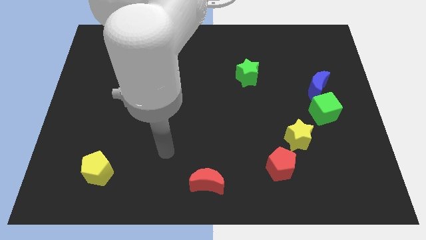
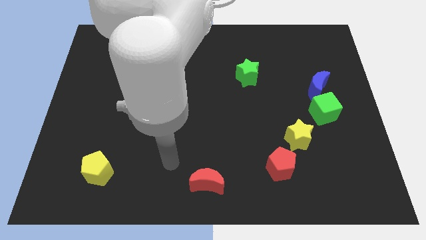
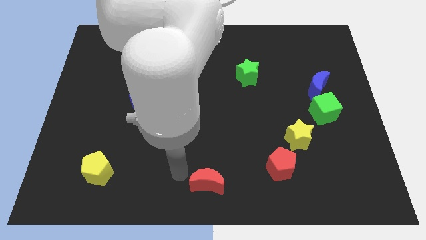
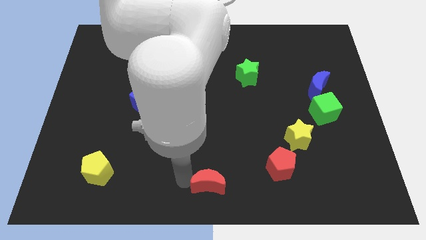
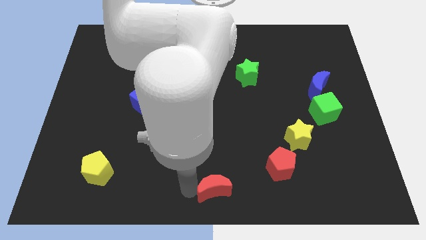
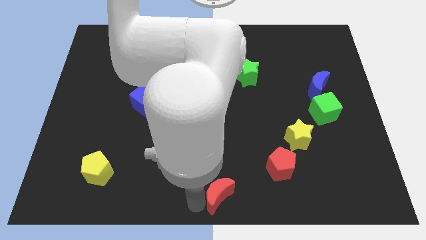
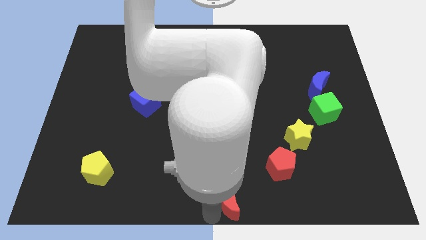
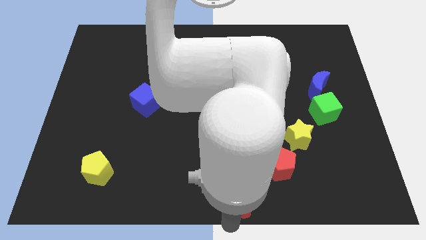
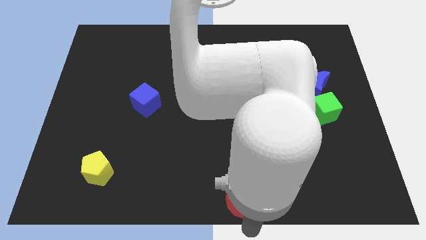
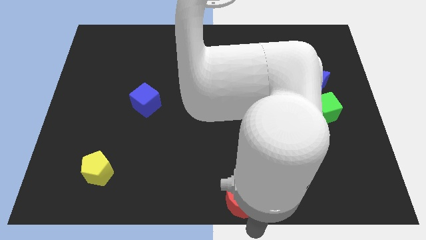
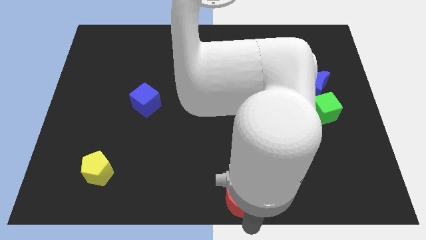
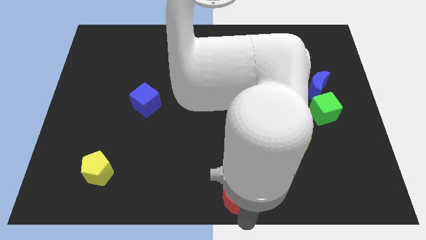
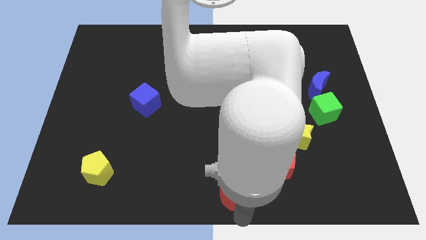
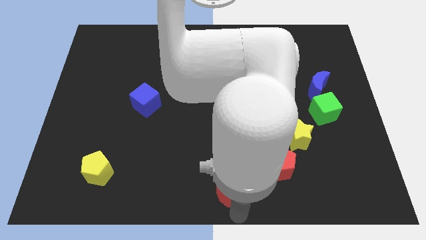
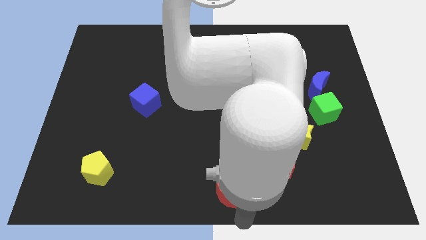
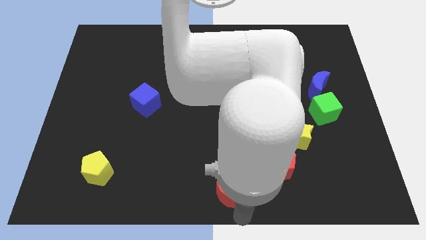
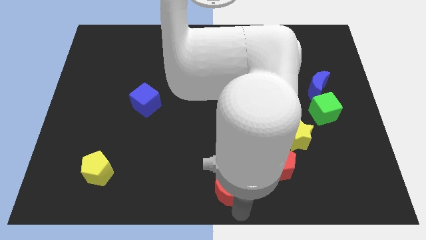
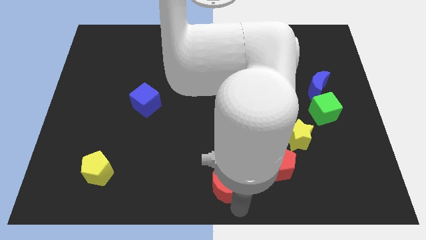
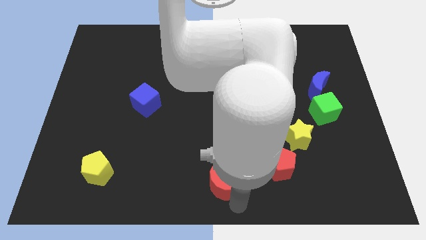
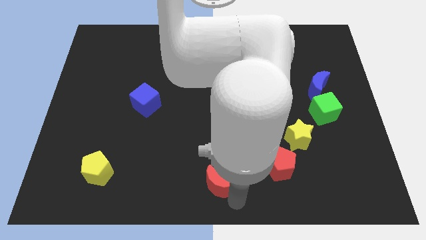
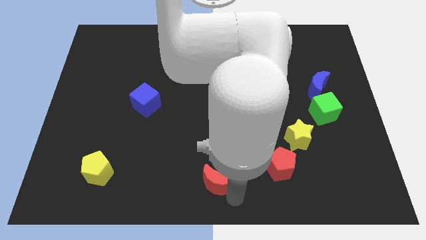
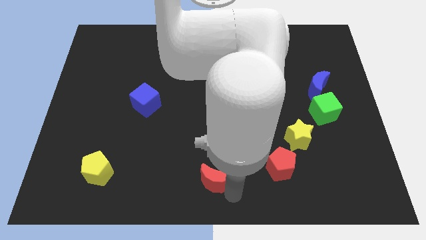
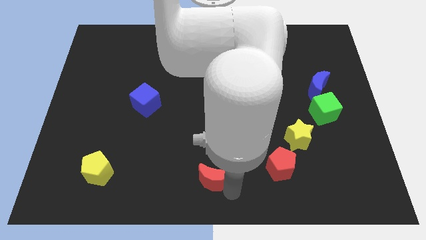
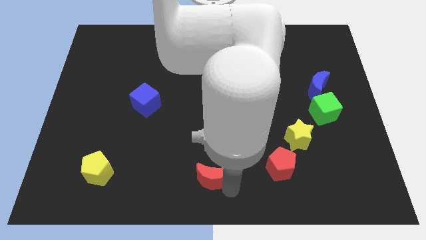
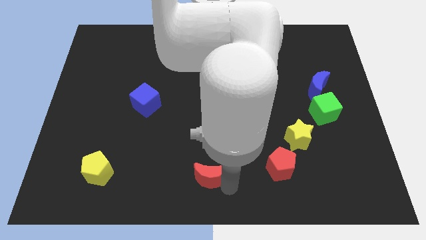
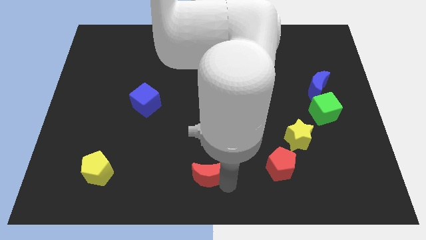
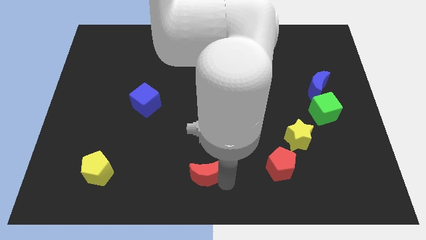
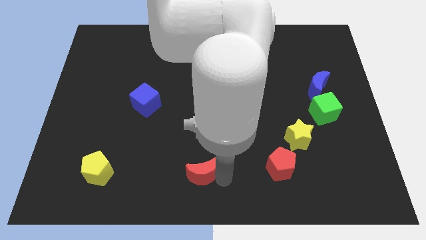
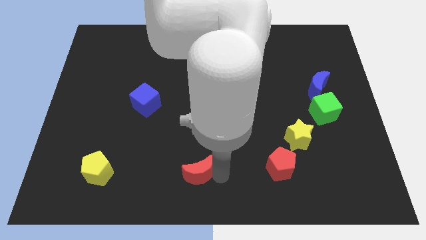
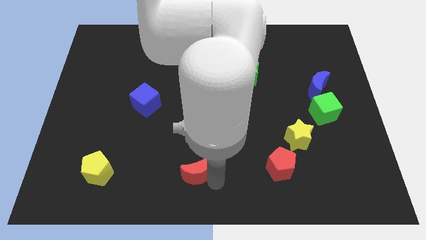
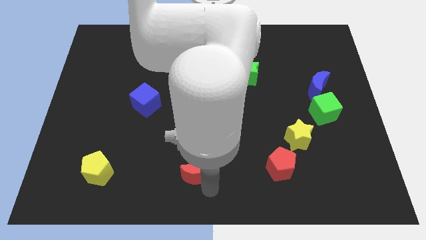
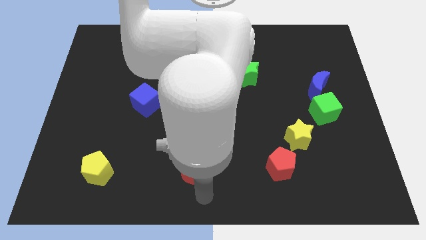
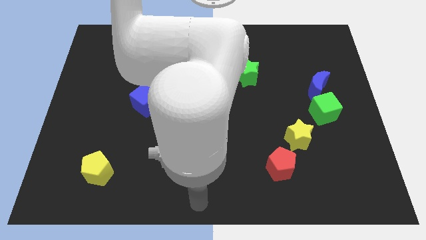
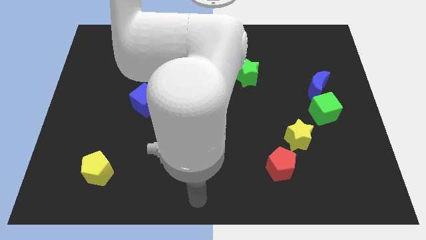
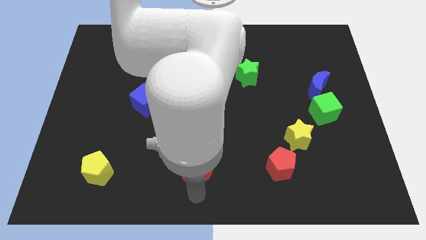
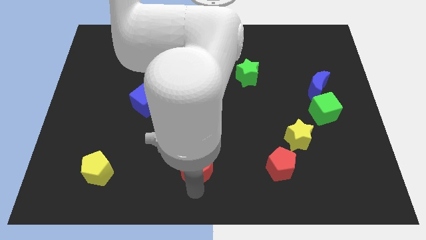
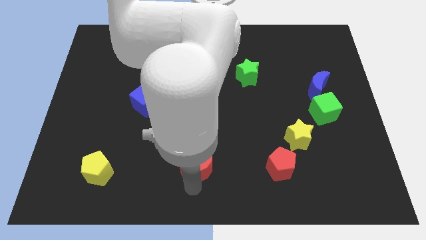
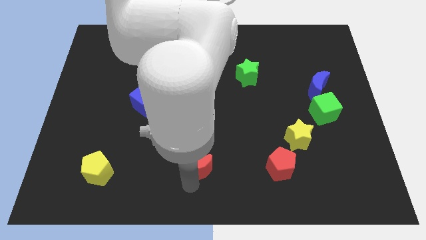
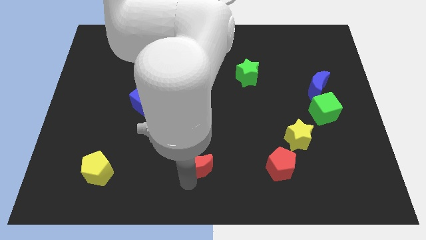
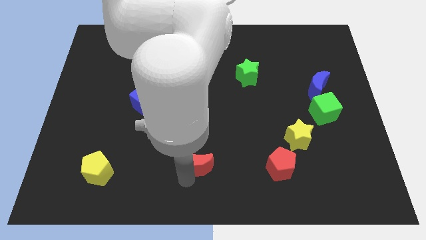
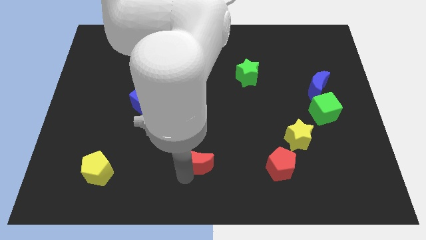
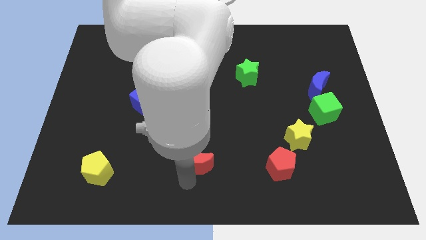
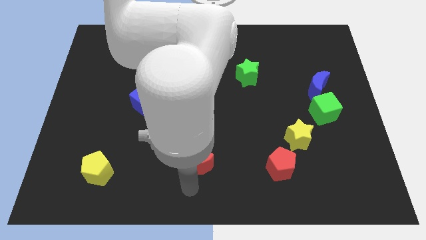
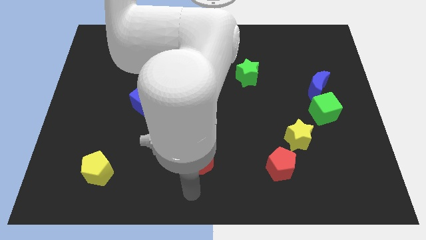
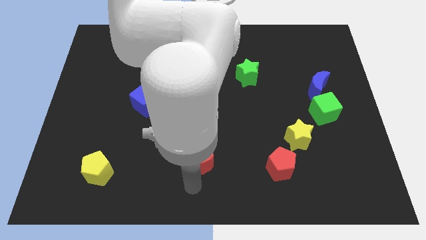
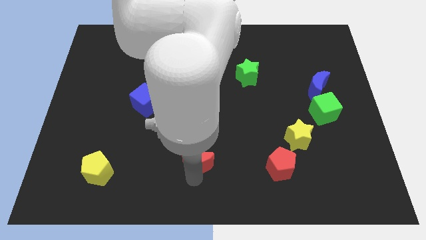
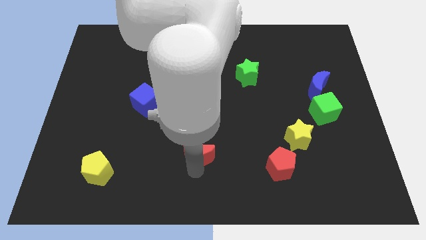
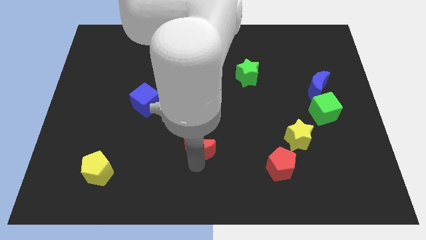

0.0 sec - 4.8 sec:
slightly slide the red moon up

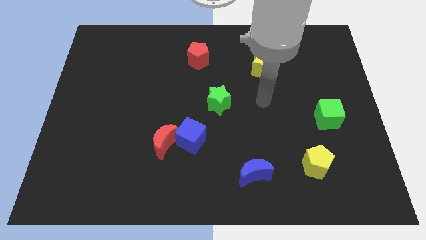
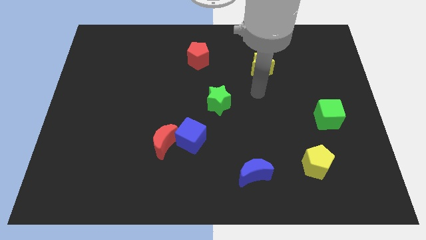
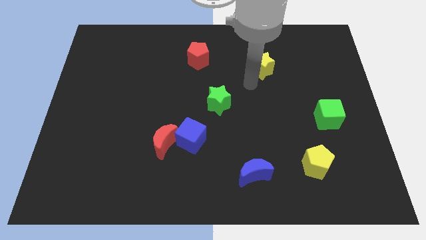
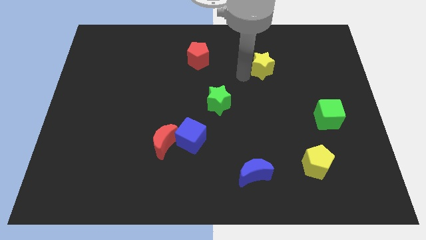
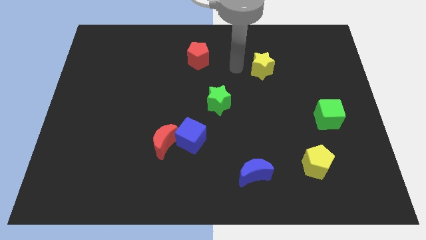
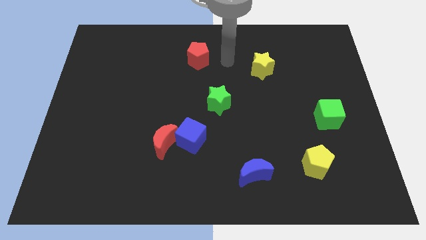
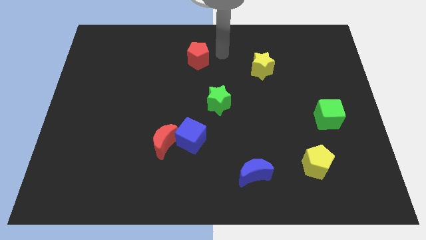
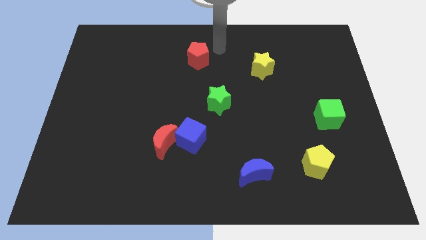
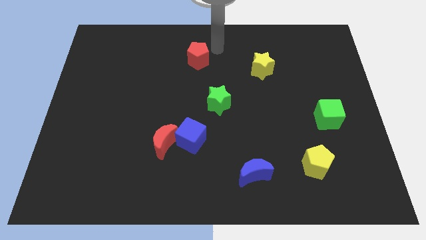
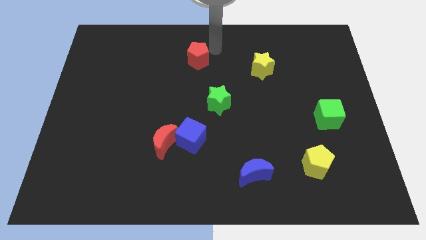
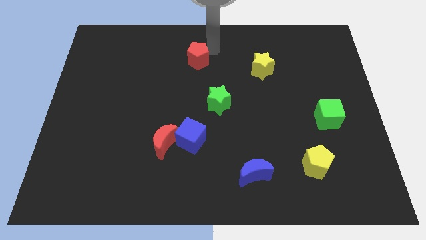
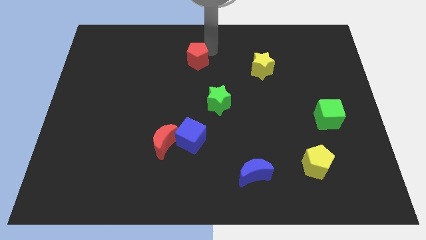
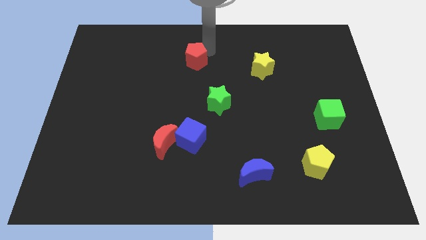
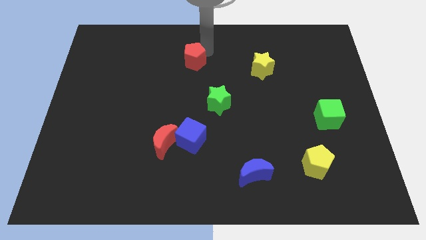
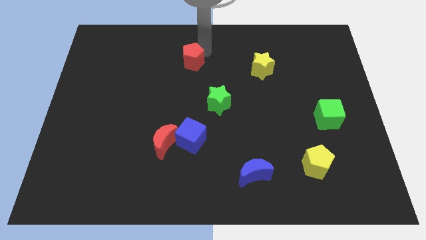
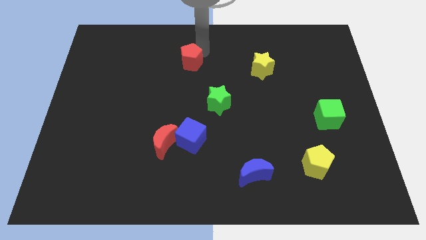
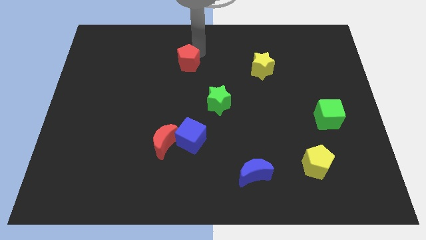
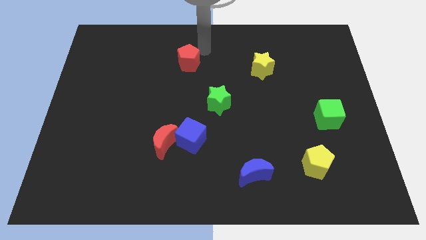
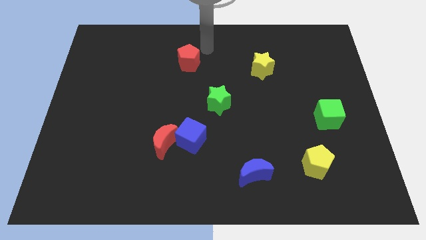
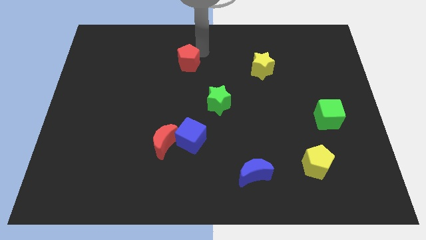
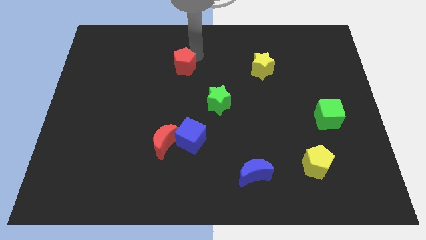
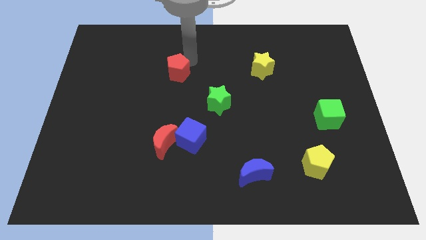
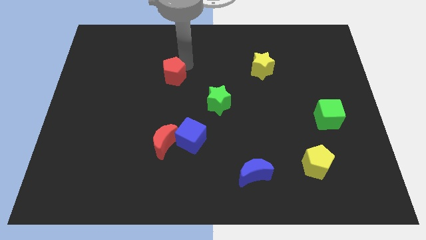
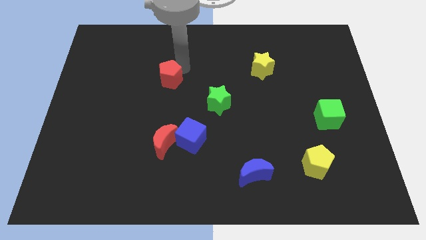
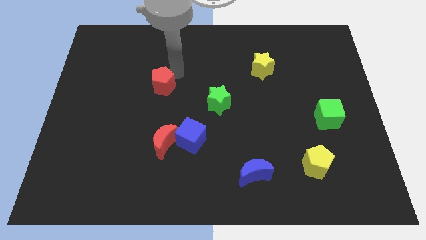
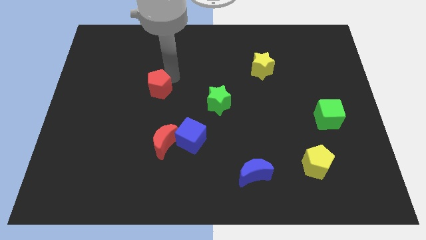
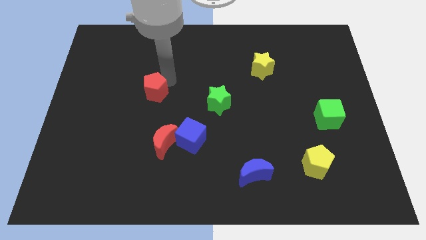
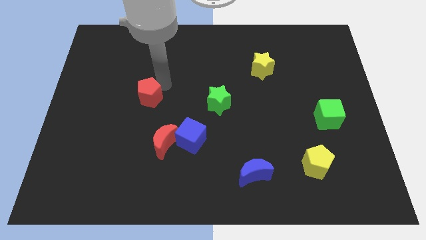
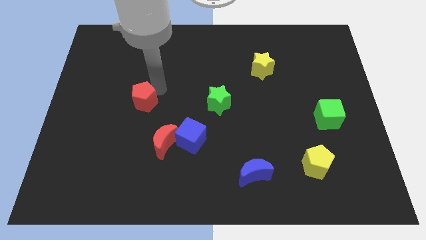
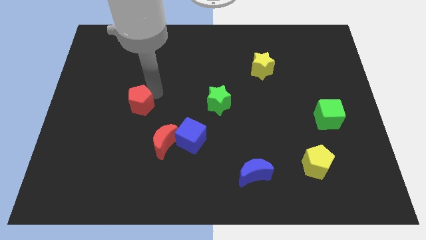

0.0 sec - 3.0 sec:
slide the red pentagon down and to the left diagonally

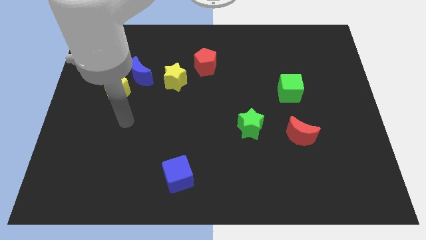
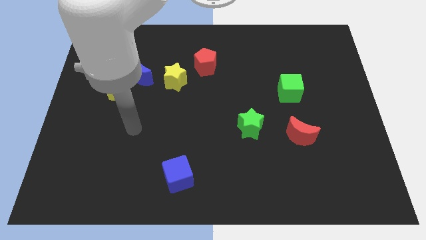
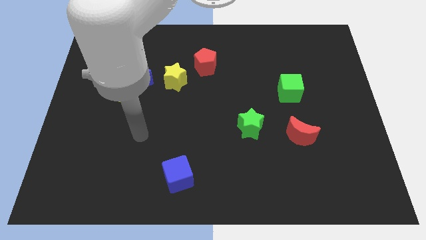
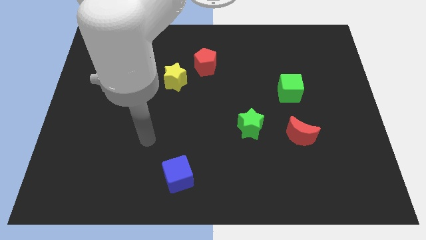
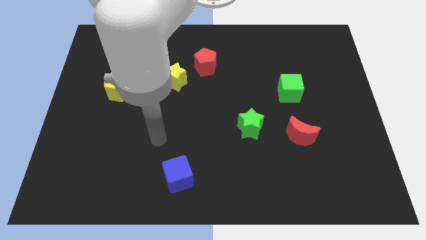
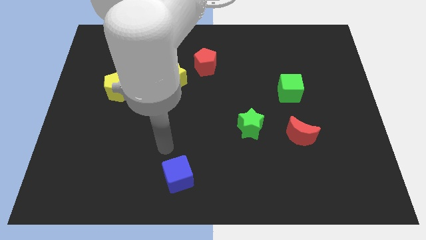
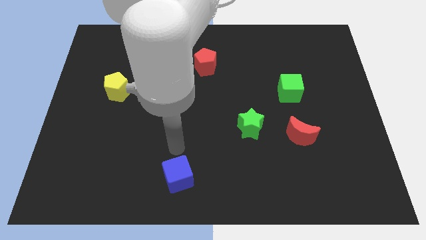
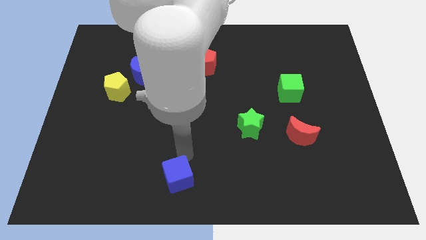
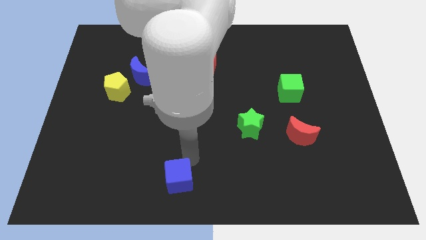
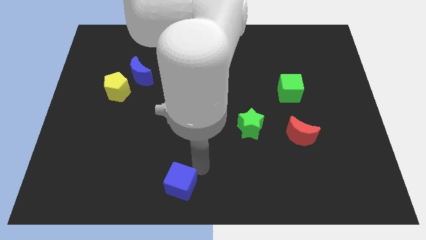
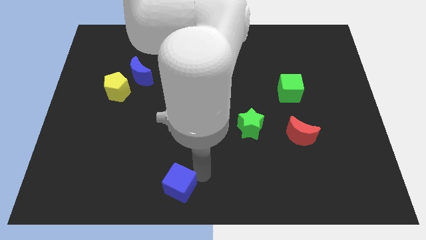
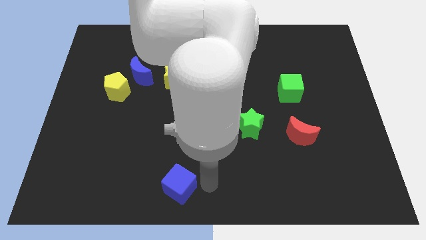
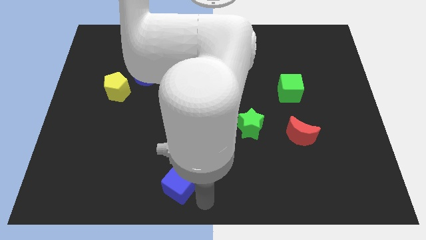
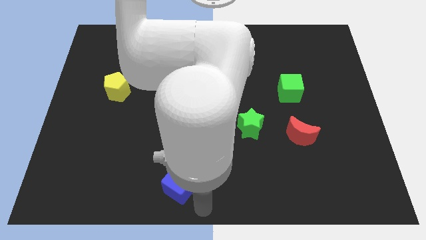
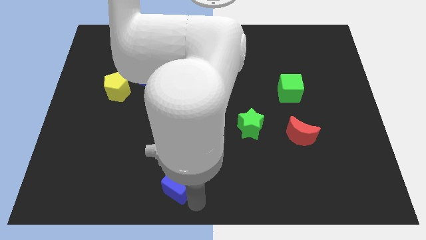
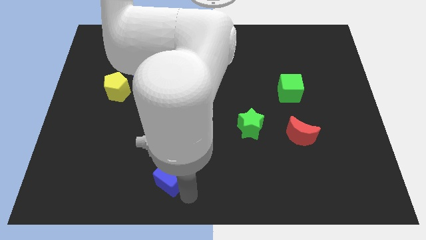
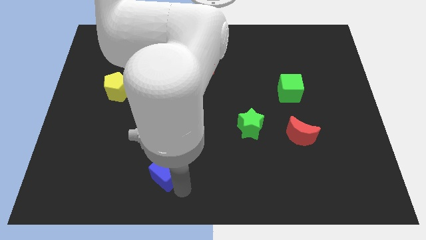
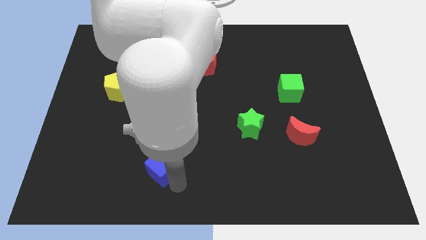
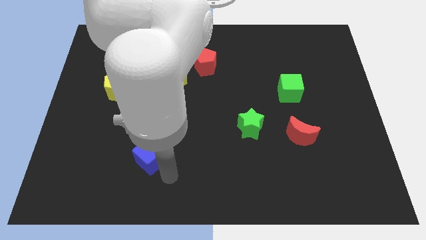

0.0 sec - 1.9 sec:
push the blue cube somewhat upwards and to the left diagonally
